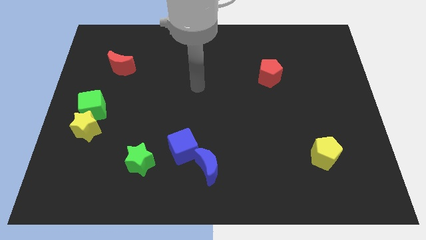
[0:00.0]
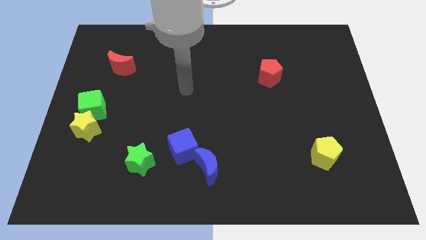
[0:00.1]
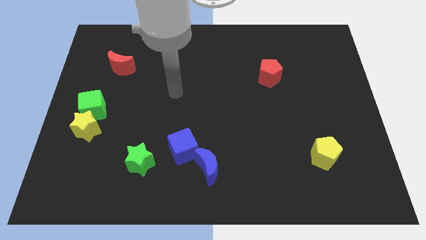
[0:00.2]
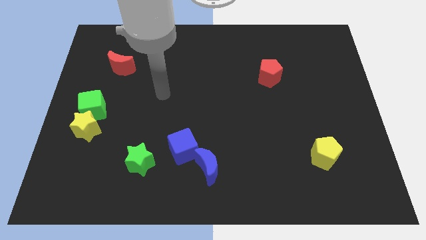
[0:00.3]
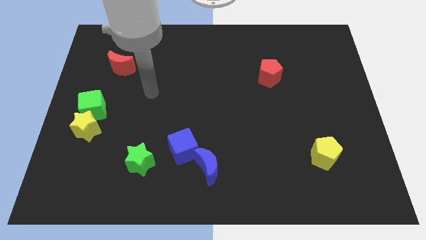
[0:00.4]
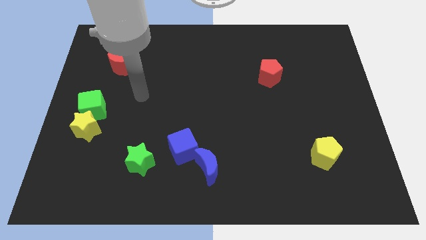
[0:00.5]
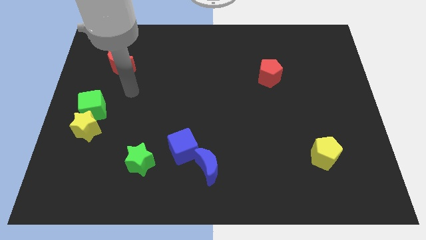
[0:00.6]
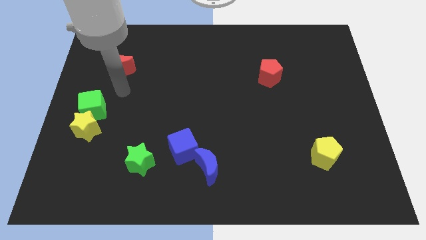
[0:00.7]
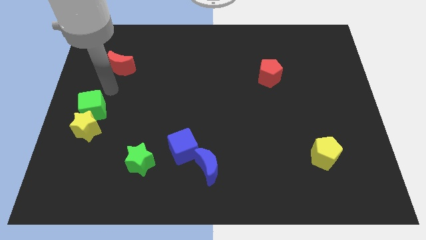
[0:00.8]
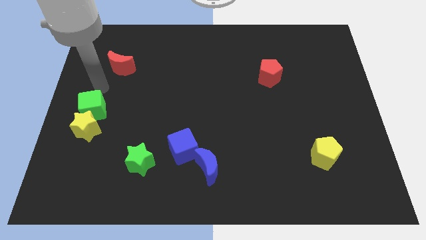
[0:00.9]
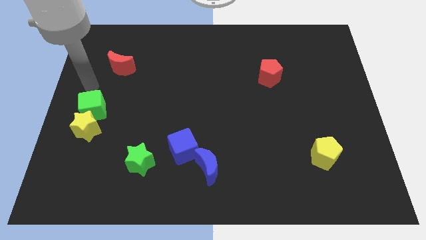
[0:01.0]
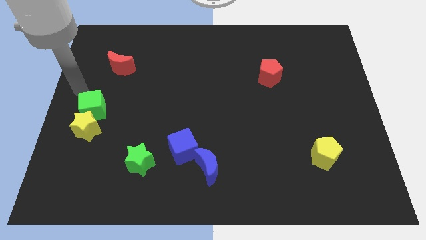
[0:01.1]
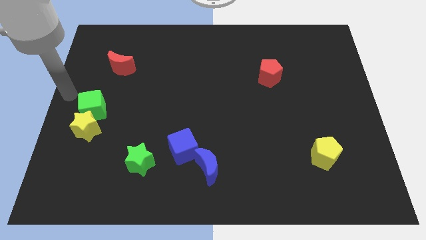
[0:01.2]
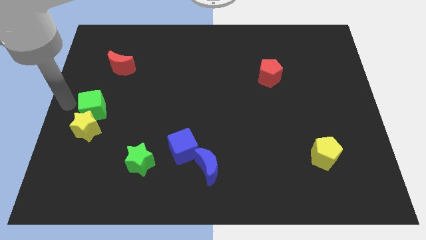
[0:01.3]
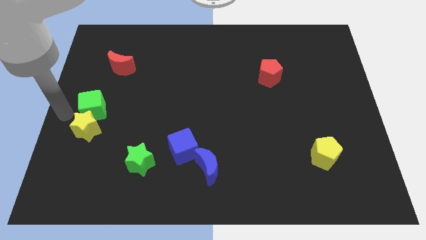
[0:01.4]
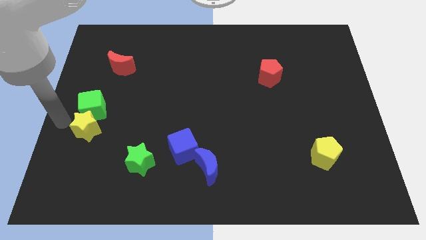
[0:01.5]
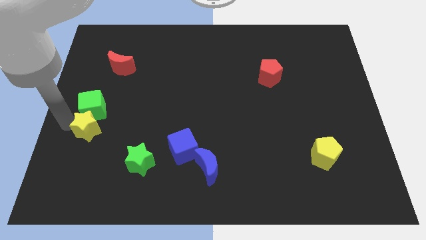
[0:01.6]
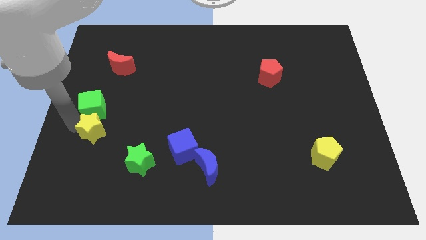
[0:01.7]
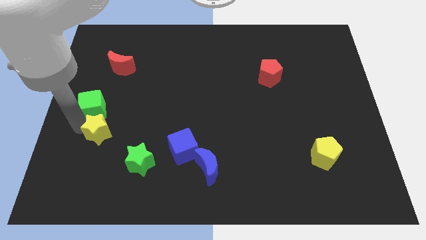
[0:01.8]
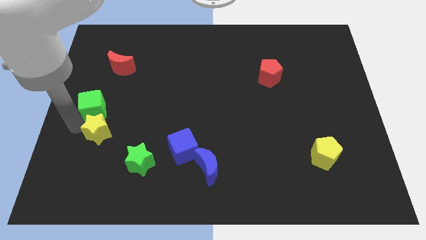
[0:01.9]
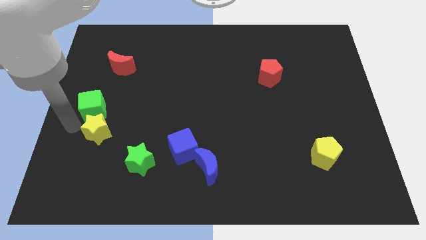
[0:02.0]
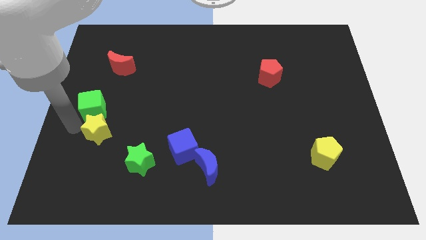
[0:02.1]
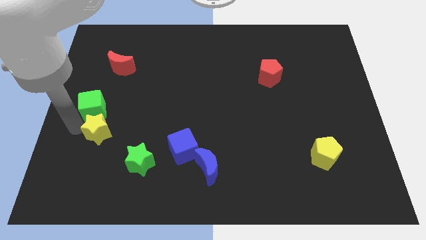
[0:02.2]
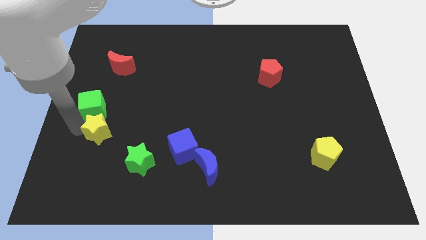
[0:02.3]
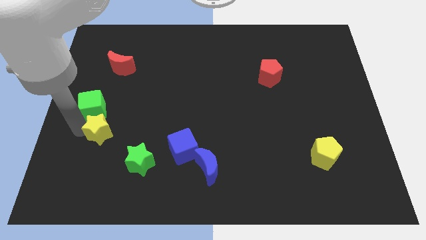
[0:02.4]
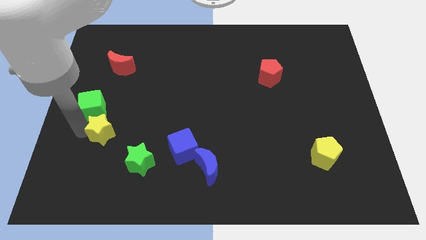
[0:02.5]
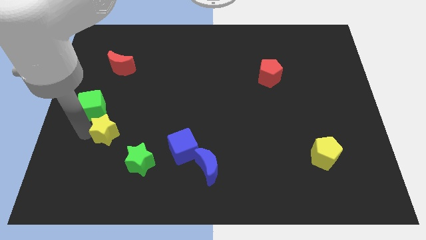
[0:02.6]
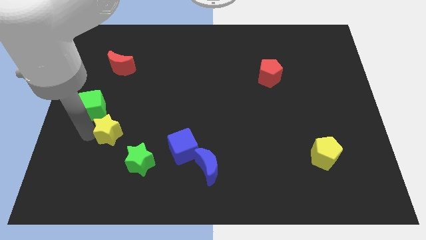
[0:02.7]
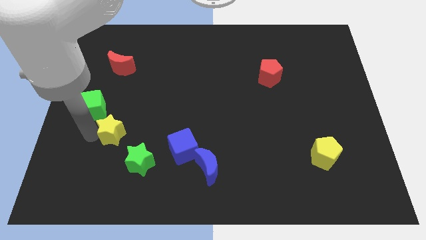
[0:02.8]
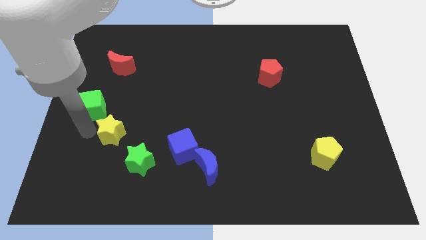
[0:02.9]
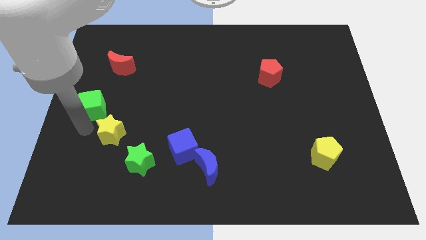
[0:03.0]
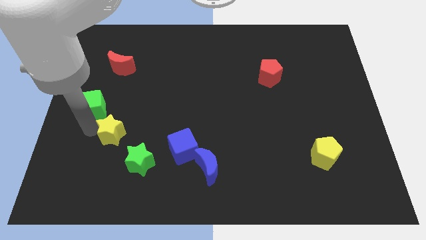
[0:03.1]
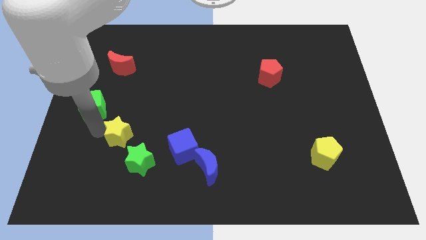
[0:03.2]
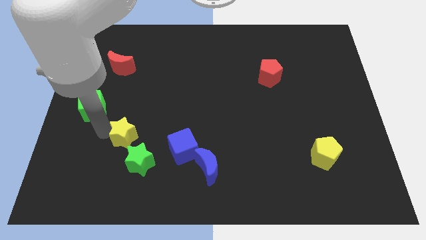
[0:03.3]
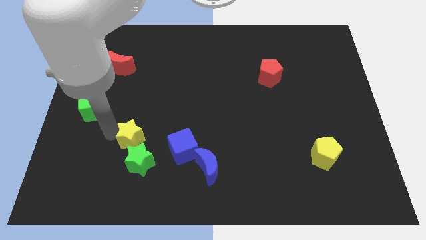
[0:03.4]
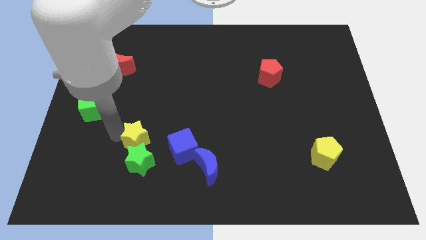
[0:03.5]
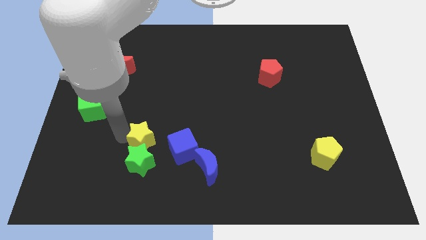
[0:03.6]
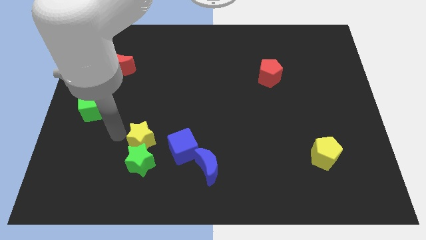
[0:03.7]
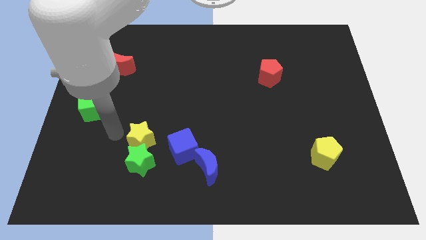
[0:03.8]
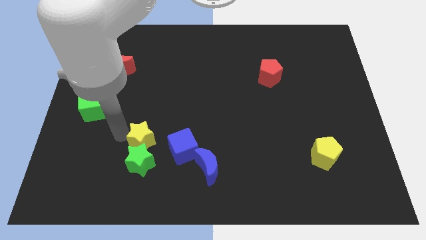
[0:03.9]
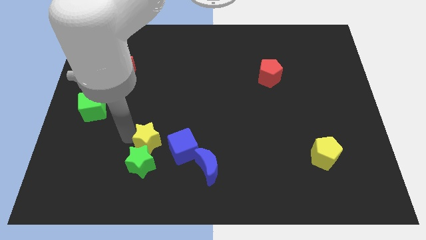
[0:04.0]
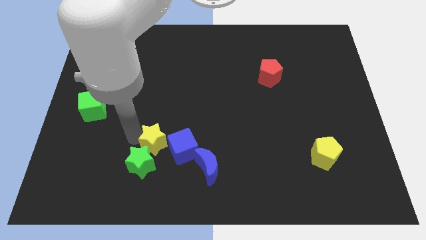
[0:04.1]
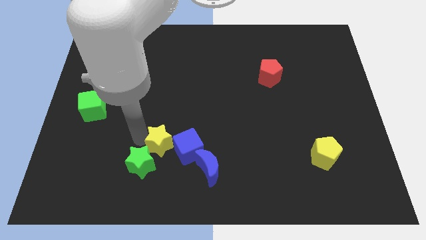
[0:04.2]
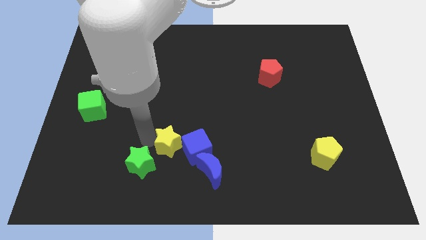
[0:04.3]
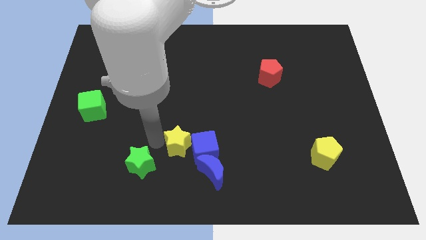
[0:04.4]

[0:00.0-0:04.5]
push the yellow star towards the blue cube

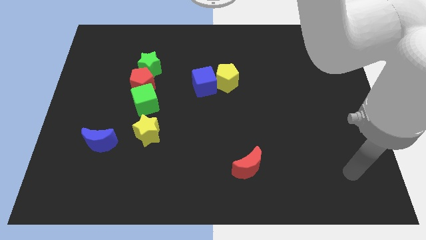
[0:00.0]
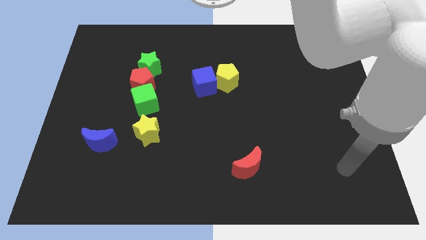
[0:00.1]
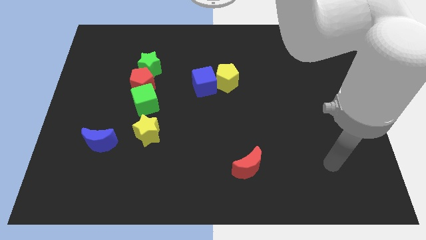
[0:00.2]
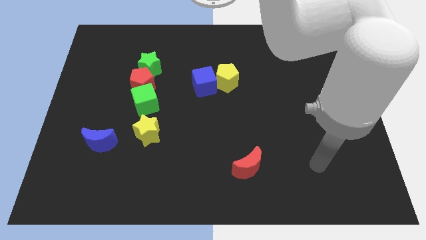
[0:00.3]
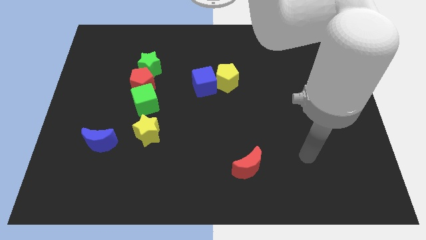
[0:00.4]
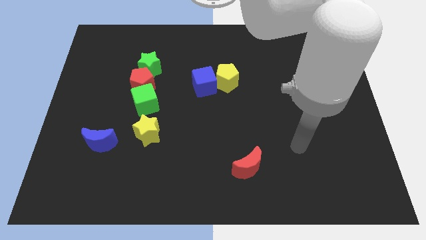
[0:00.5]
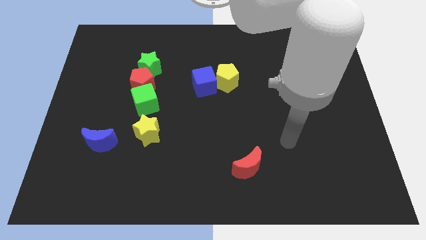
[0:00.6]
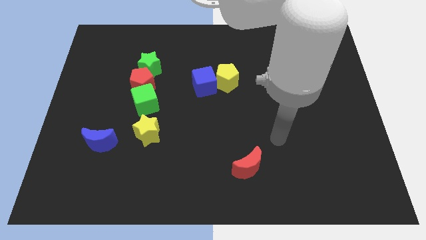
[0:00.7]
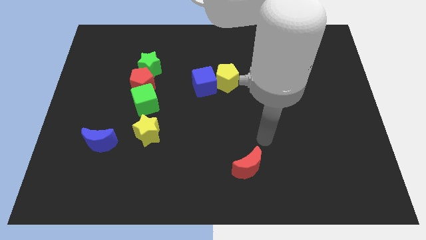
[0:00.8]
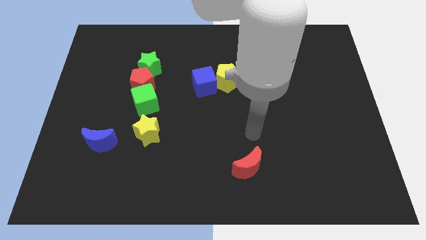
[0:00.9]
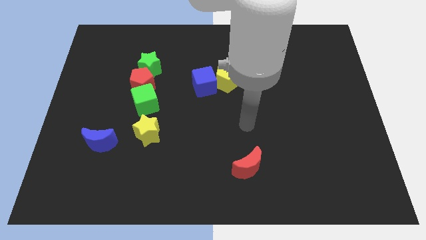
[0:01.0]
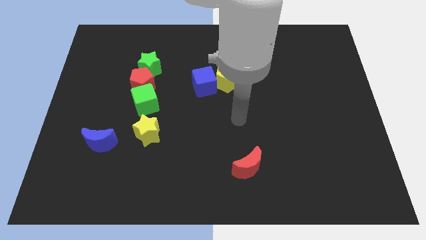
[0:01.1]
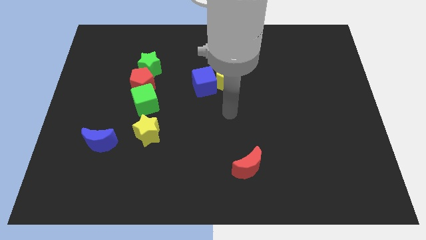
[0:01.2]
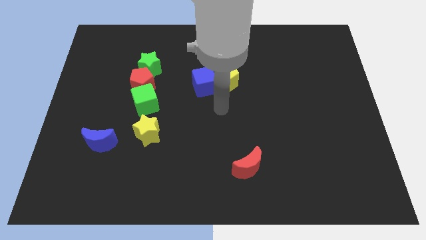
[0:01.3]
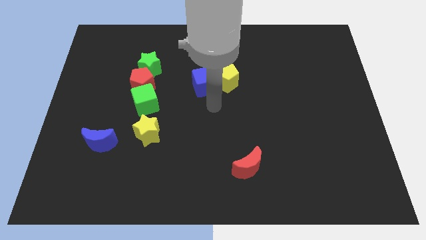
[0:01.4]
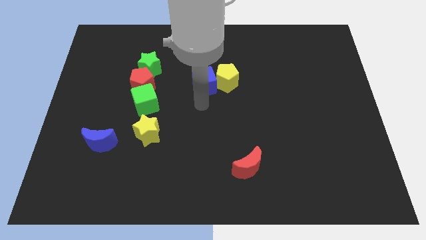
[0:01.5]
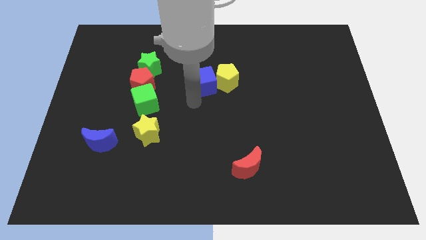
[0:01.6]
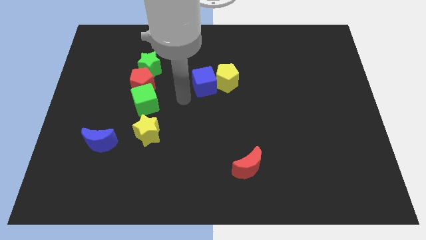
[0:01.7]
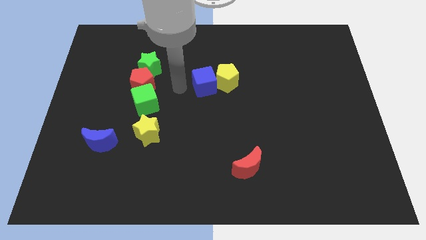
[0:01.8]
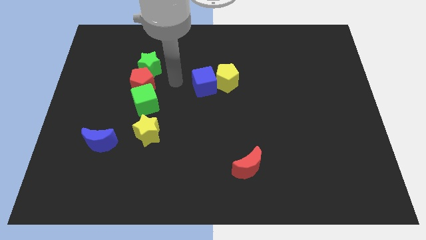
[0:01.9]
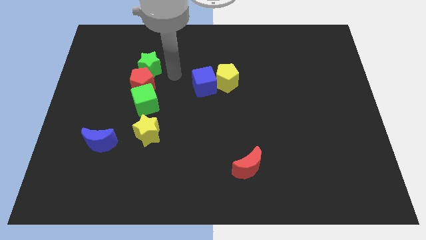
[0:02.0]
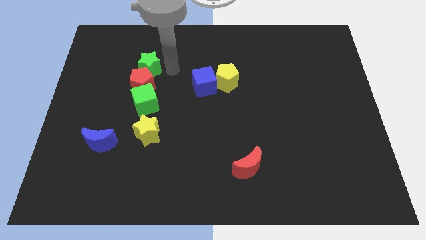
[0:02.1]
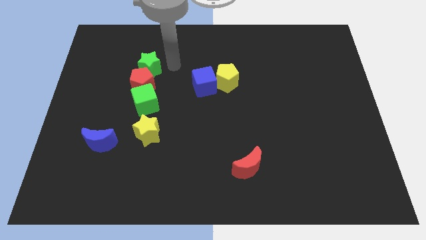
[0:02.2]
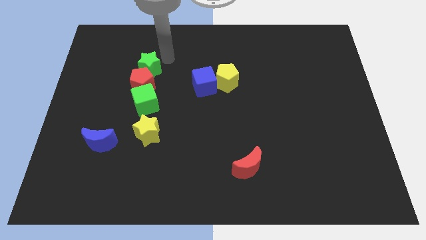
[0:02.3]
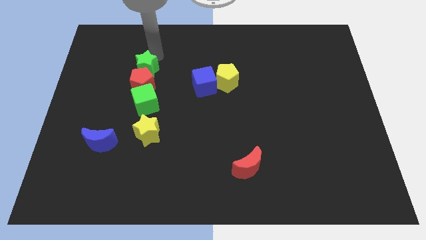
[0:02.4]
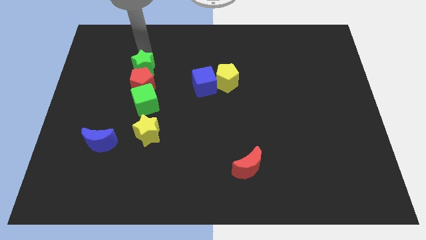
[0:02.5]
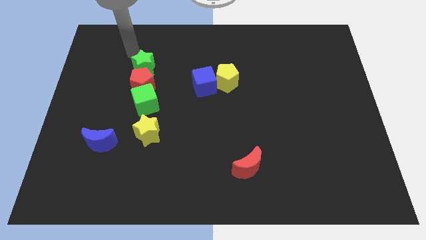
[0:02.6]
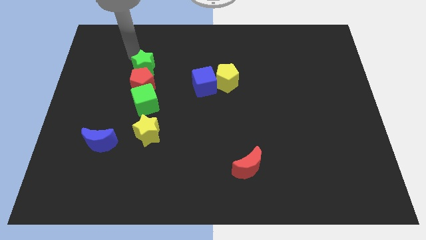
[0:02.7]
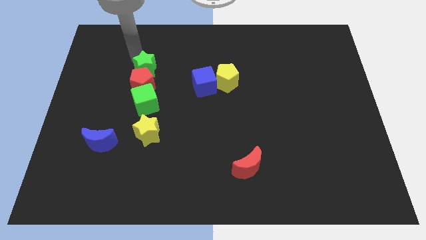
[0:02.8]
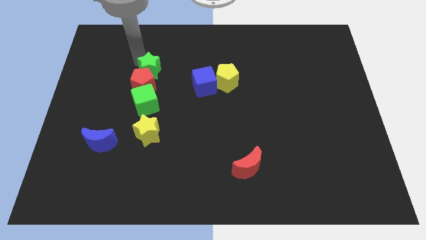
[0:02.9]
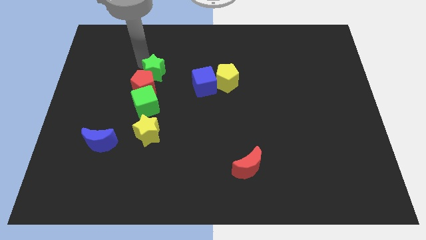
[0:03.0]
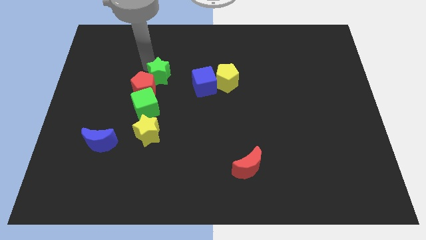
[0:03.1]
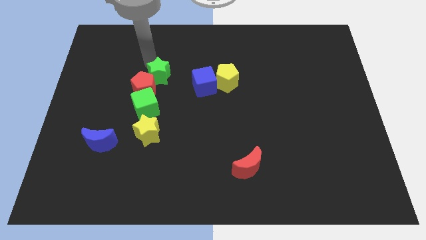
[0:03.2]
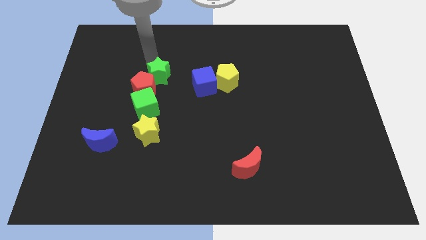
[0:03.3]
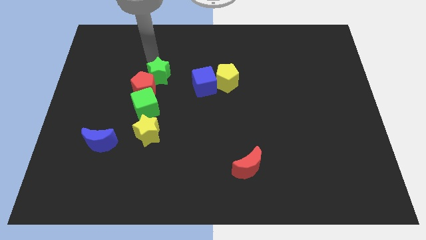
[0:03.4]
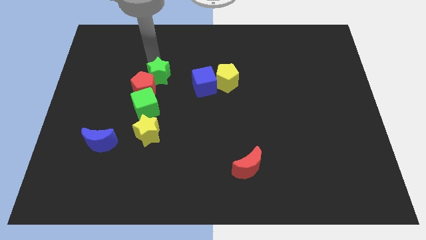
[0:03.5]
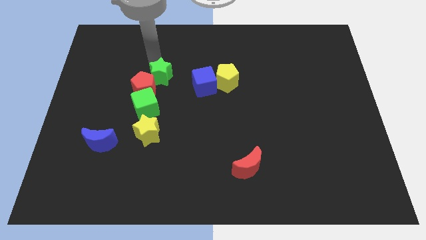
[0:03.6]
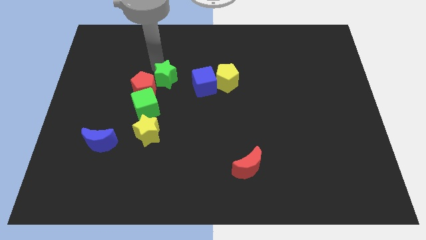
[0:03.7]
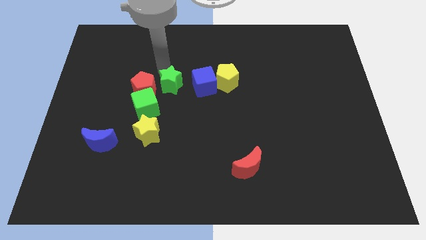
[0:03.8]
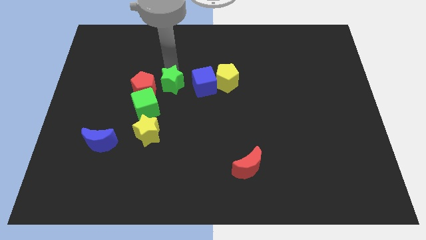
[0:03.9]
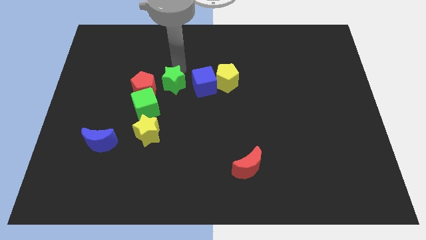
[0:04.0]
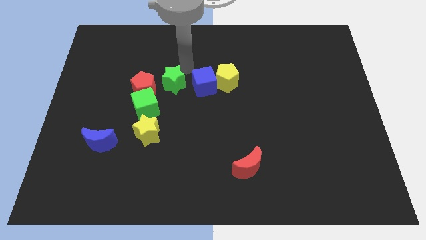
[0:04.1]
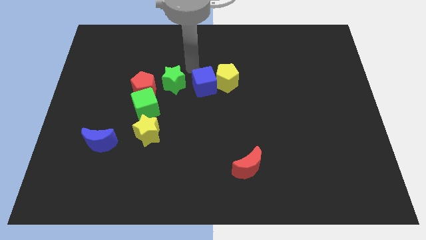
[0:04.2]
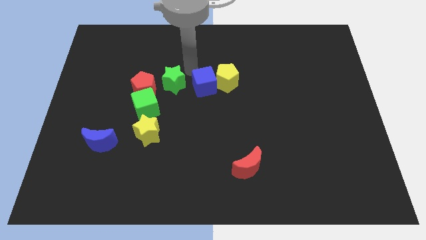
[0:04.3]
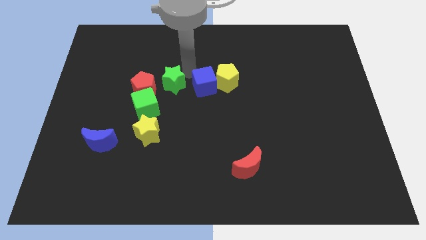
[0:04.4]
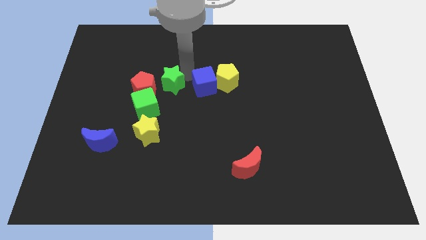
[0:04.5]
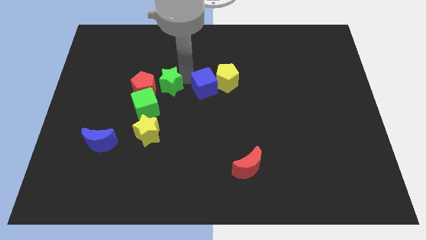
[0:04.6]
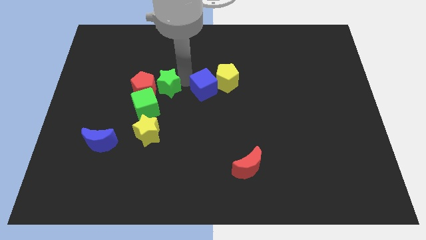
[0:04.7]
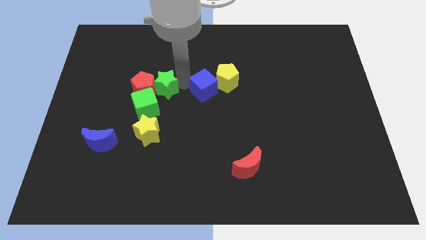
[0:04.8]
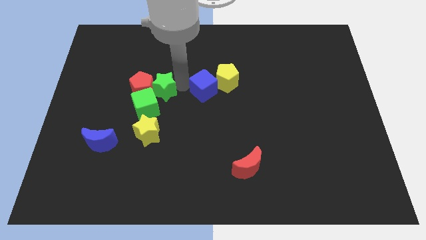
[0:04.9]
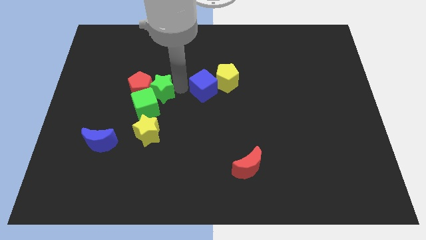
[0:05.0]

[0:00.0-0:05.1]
put the green star next to the green cube
